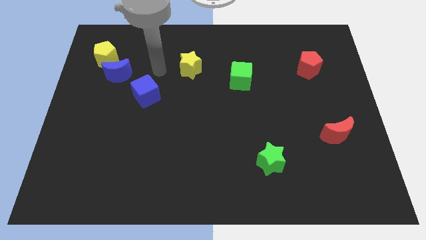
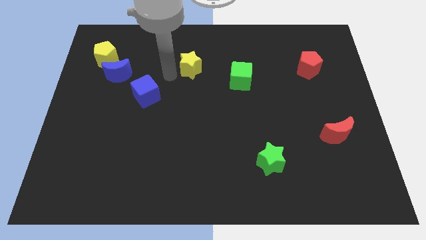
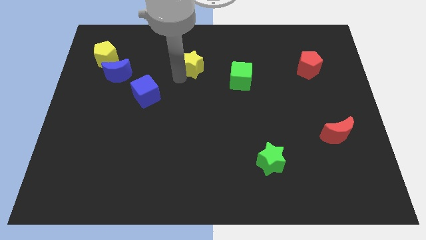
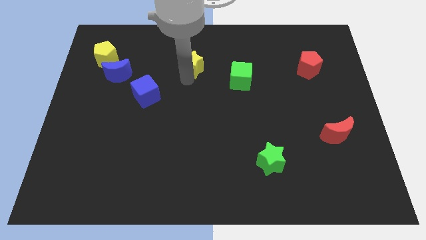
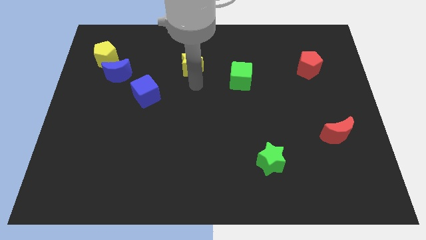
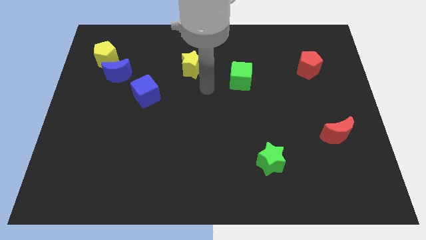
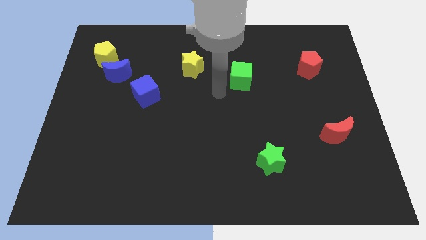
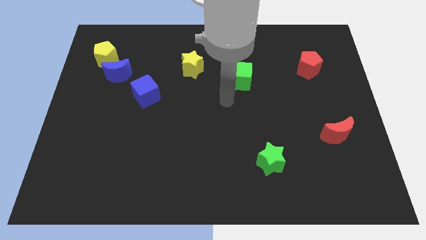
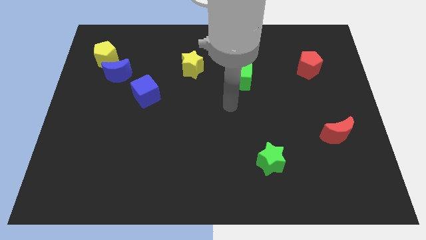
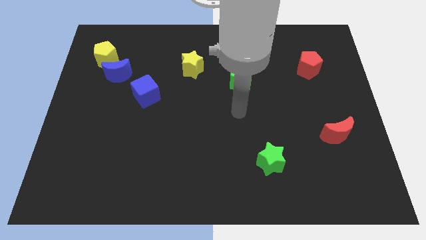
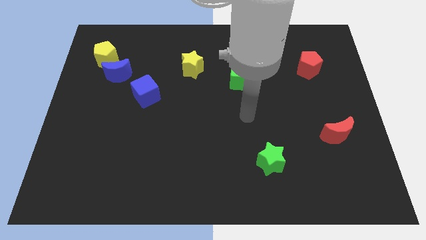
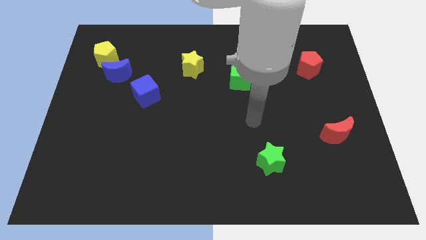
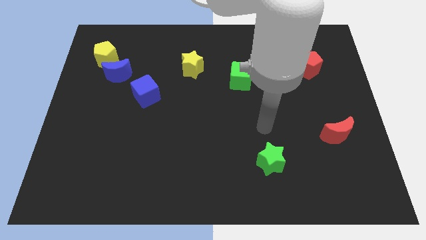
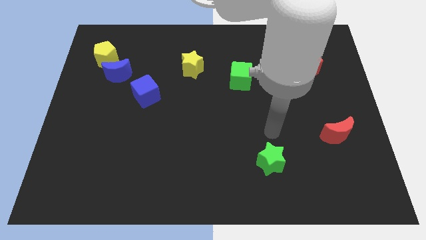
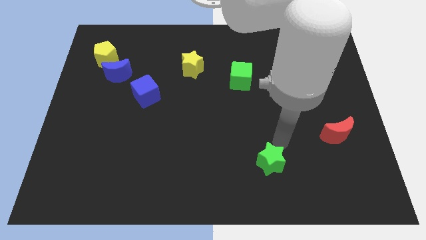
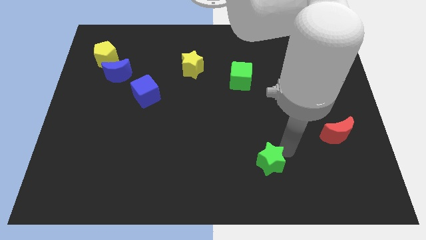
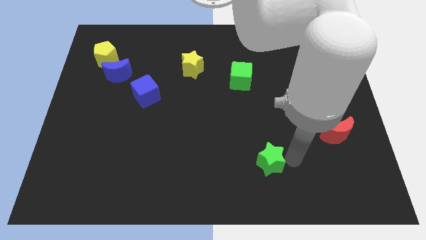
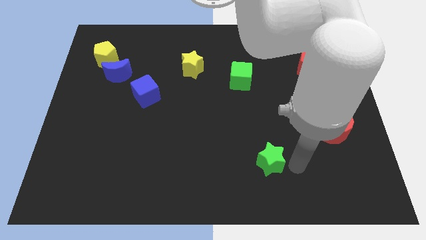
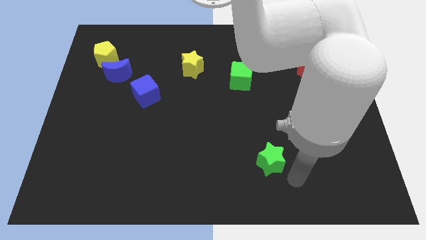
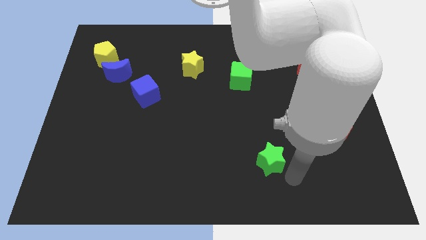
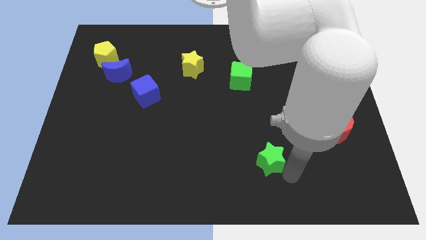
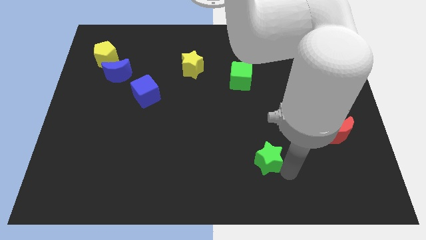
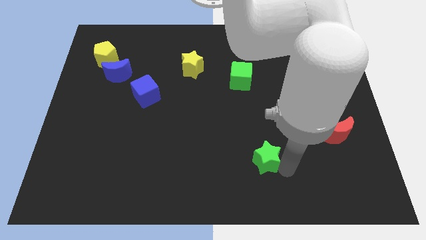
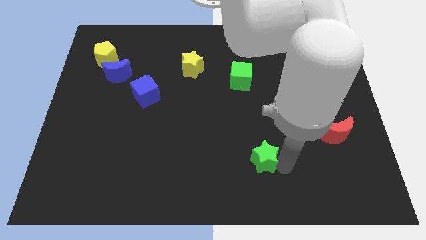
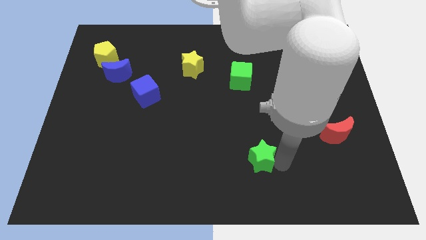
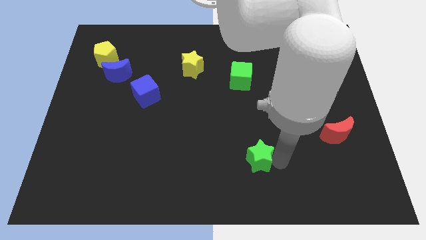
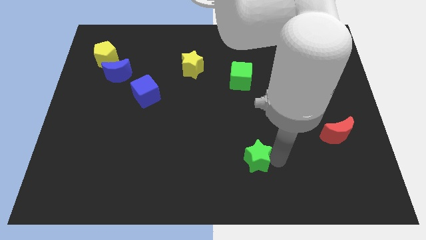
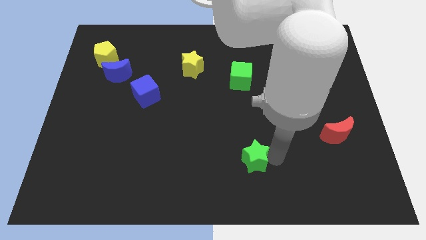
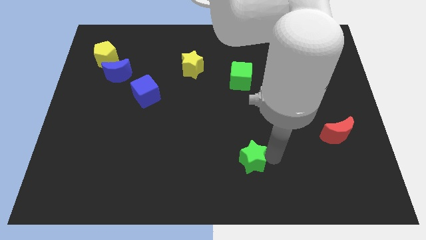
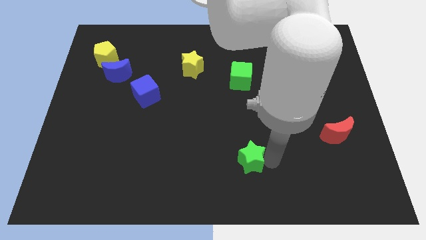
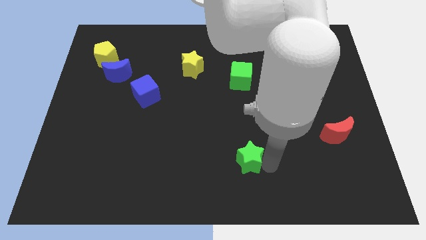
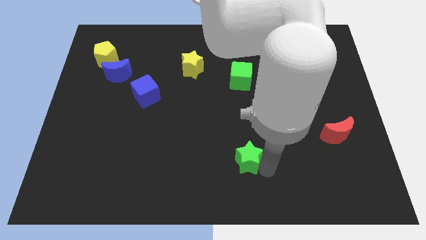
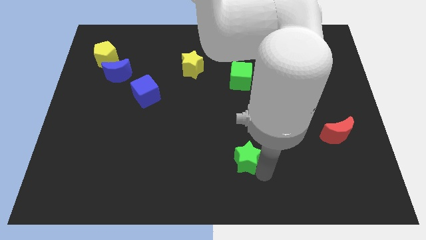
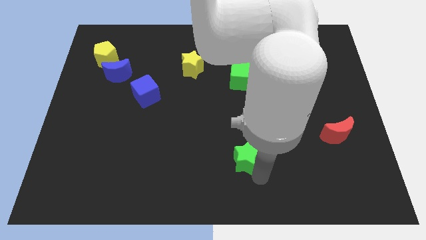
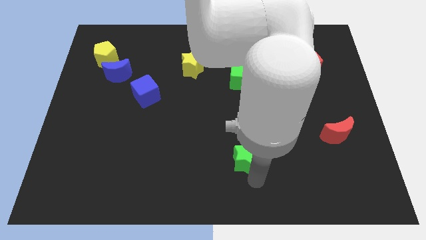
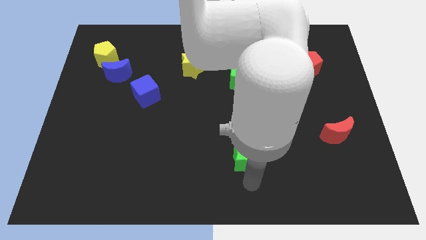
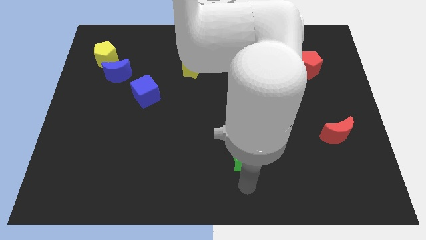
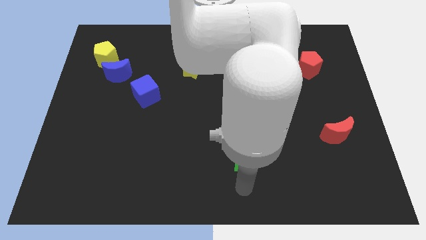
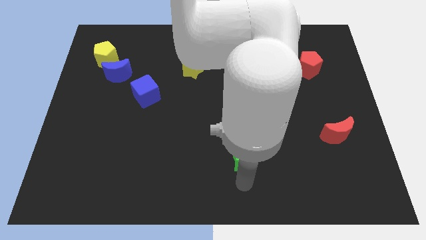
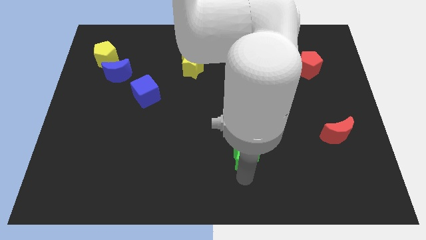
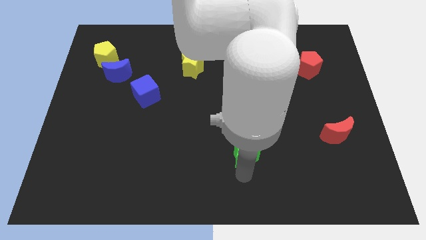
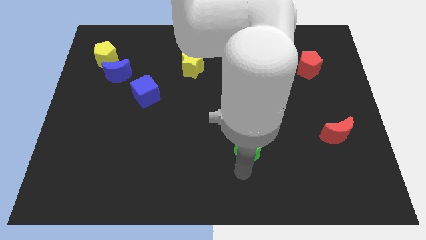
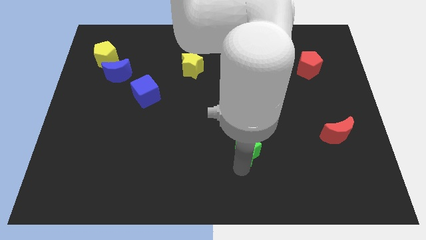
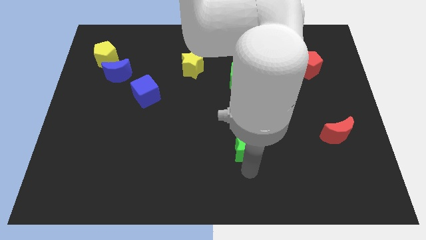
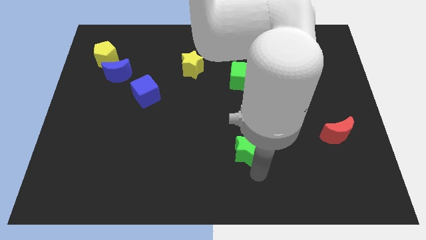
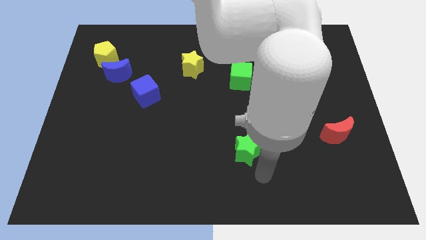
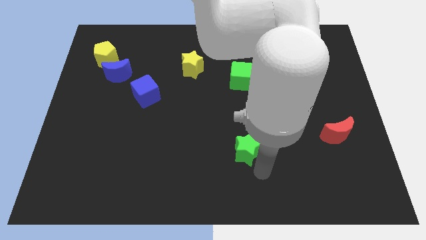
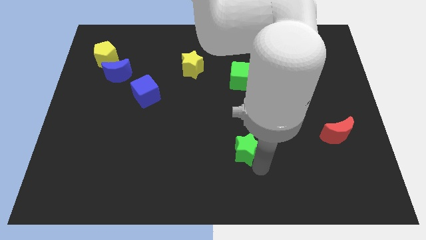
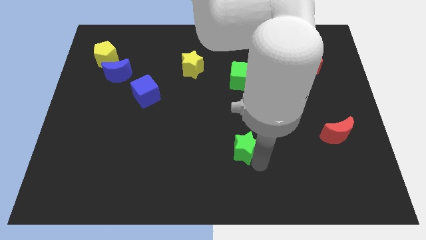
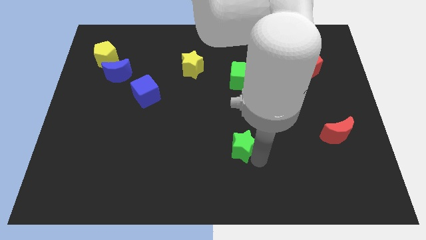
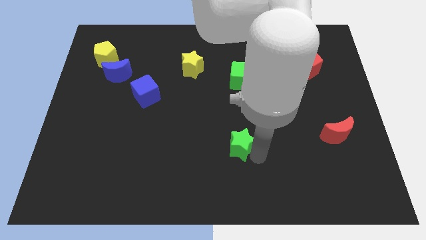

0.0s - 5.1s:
slide the green star a little bit up and to the left

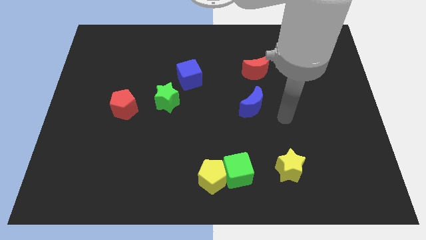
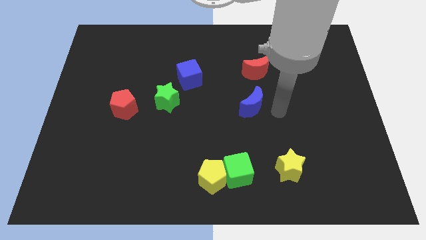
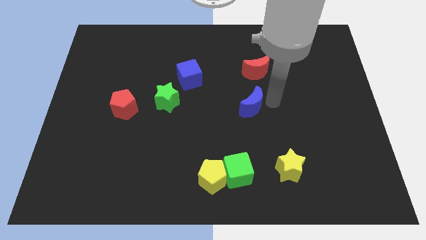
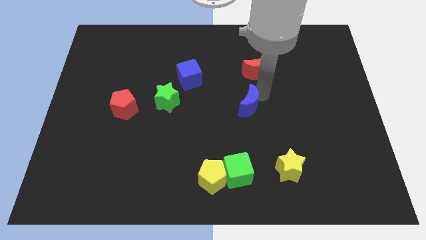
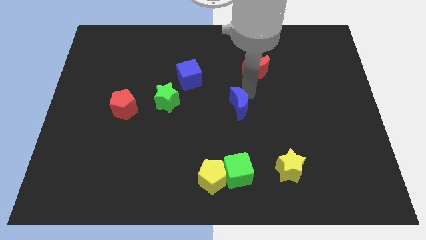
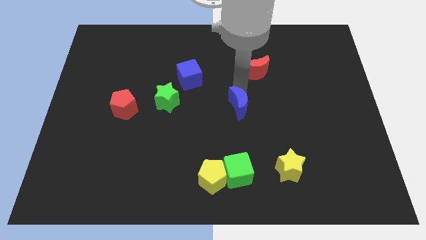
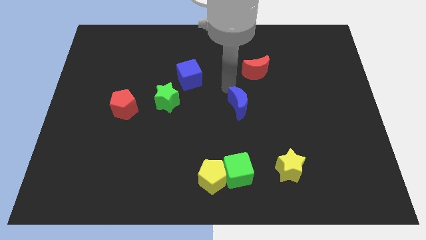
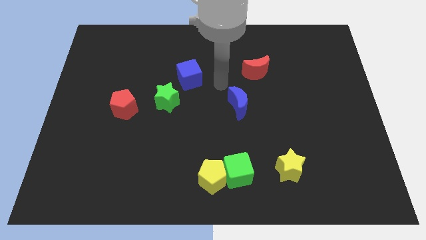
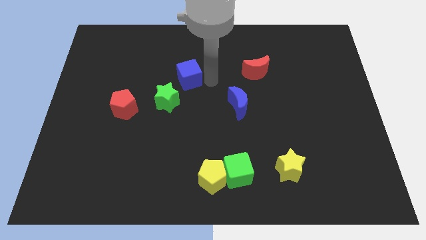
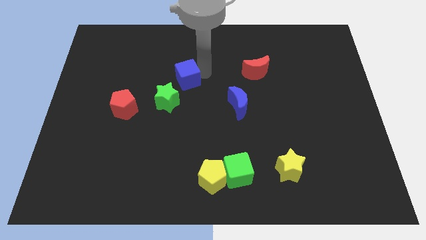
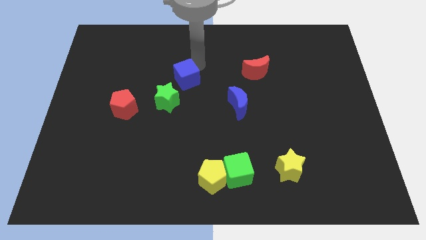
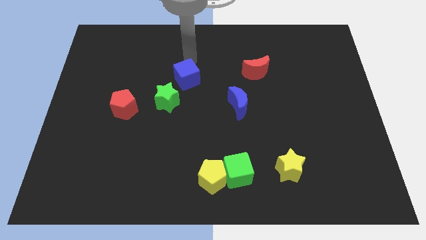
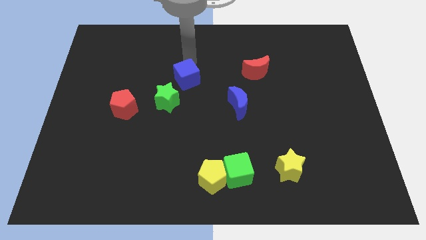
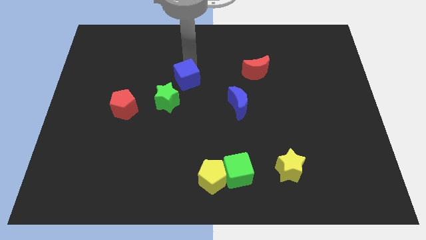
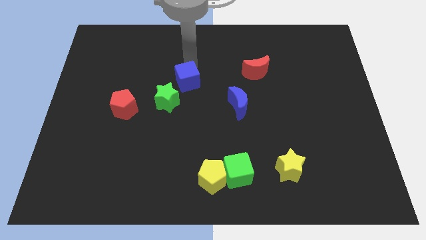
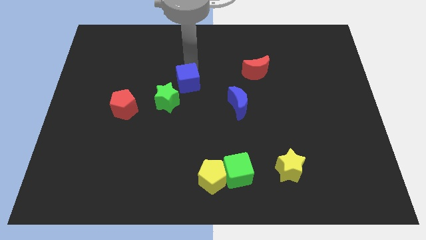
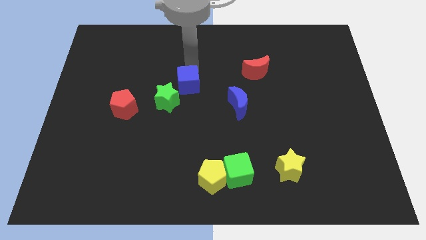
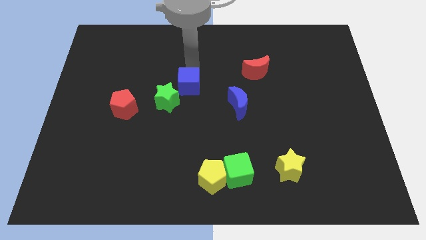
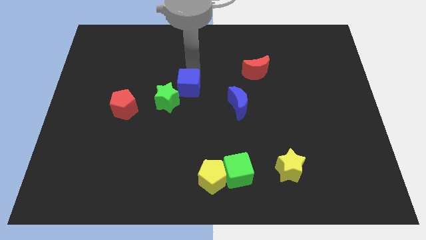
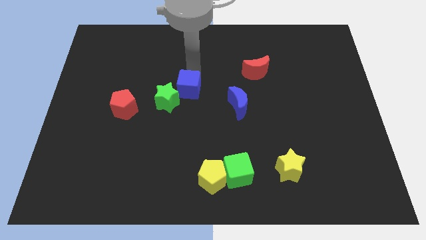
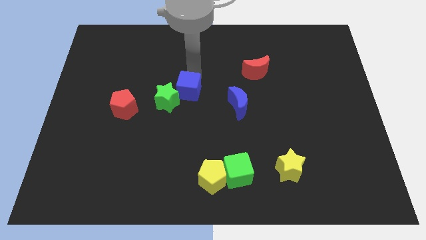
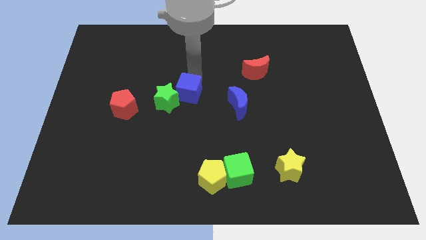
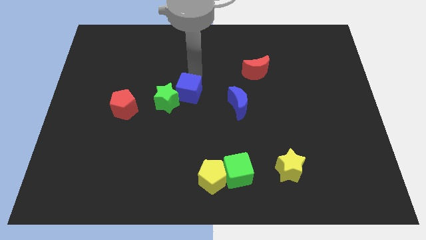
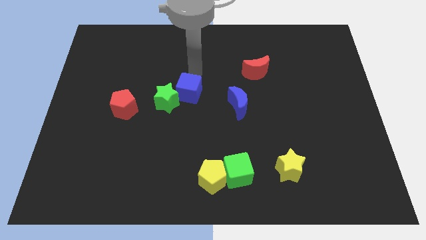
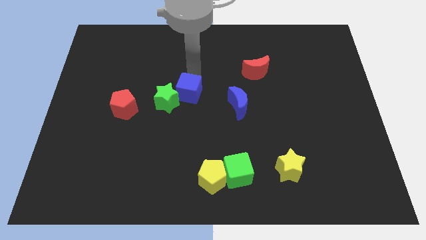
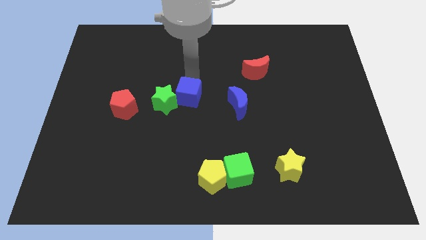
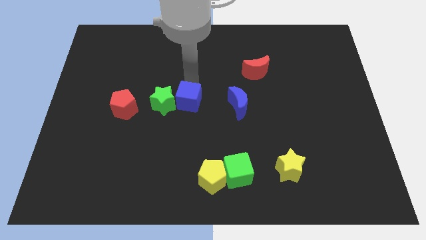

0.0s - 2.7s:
move the blue cube a little downwards

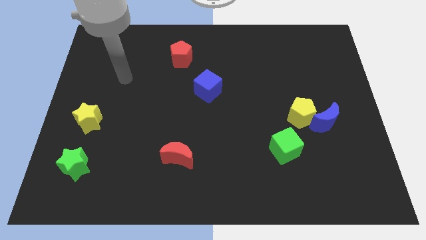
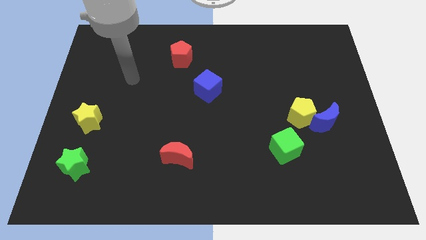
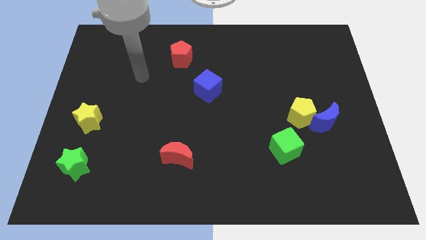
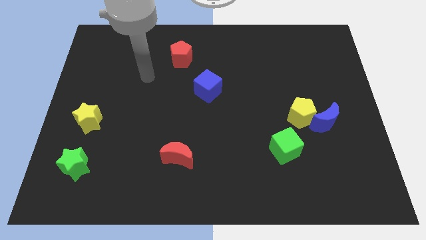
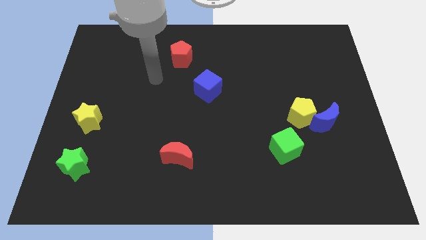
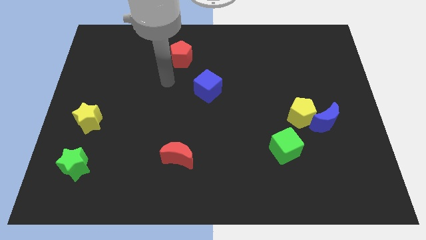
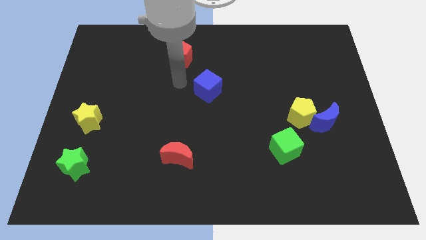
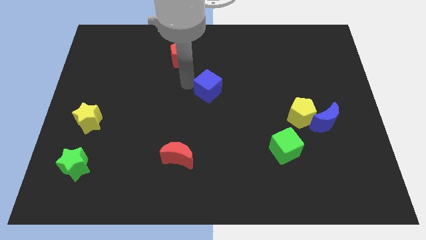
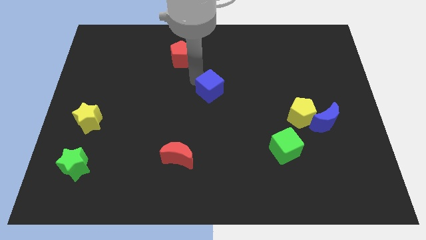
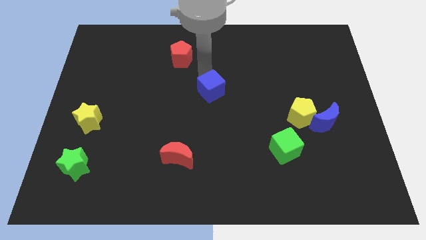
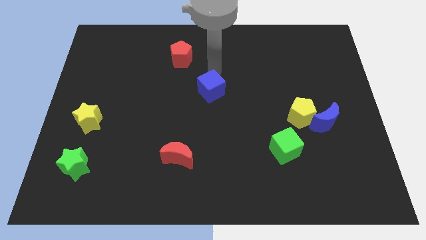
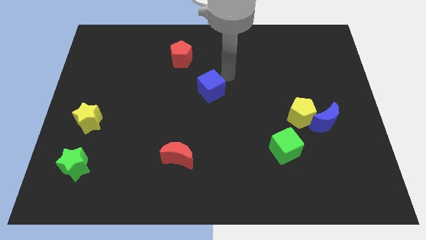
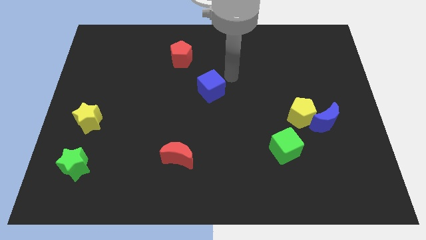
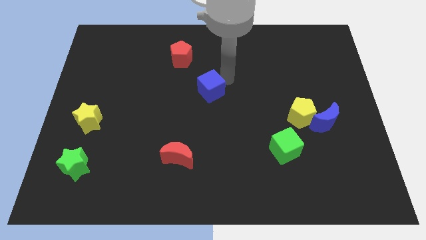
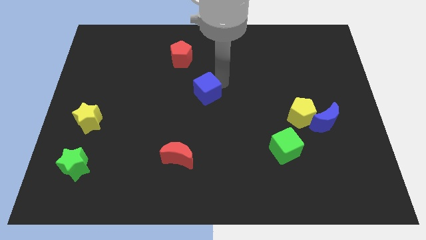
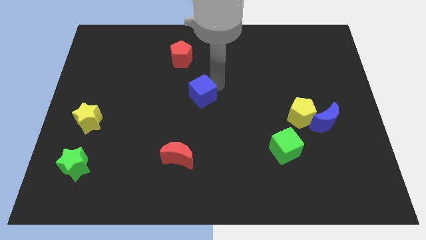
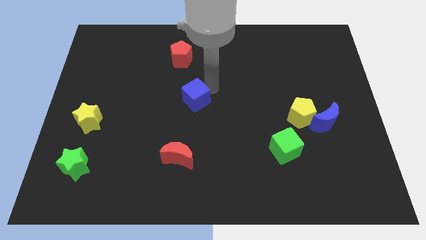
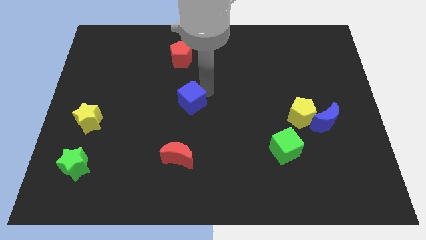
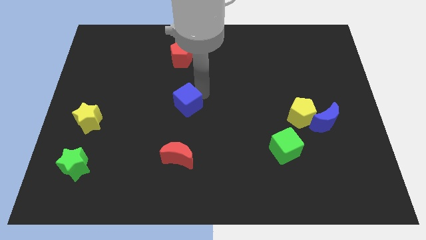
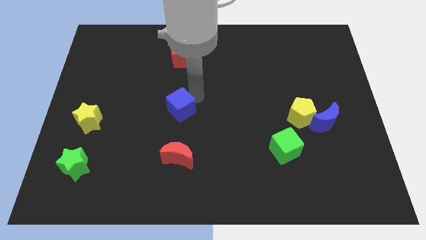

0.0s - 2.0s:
slightly push the blue cube down and to the left
